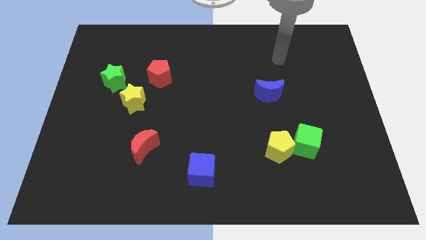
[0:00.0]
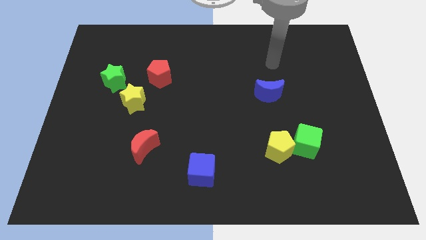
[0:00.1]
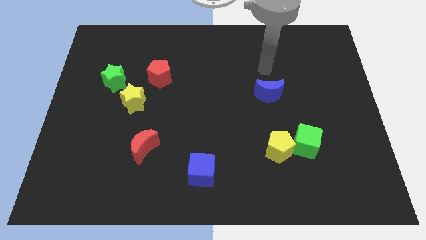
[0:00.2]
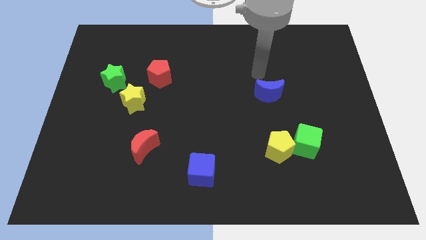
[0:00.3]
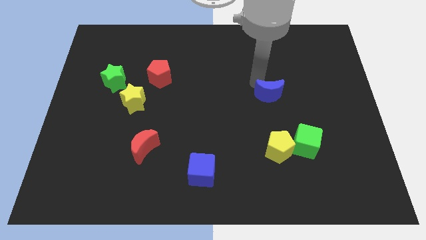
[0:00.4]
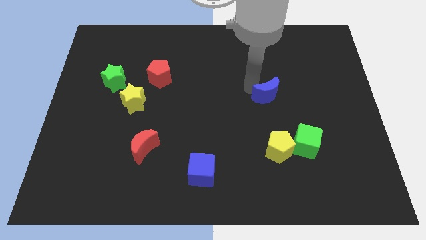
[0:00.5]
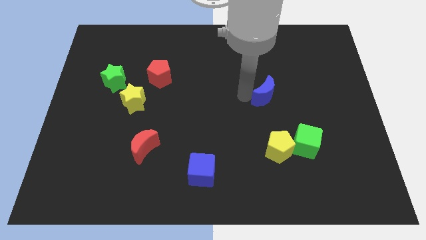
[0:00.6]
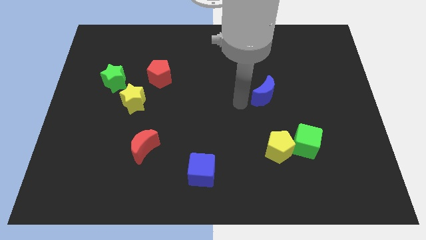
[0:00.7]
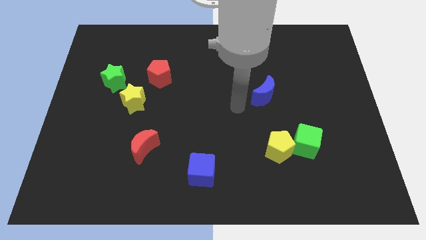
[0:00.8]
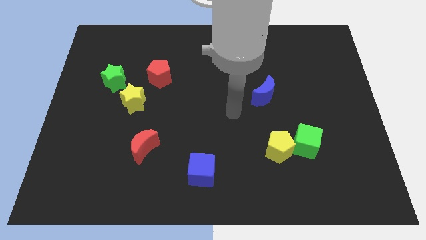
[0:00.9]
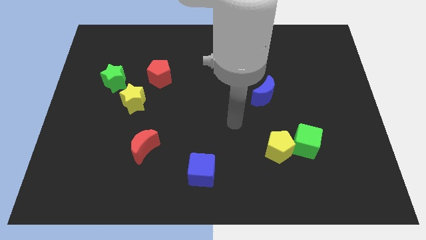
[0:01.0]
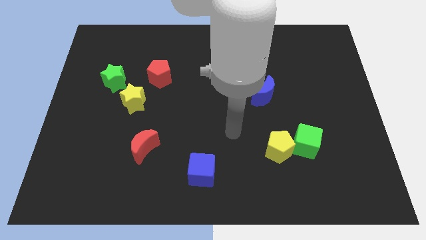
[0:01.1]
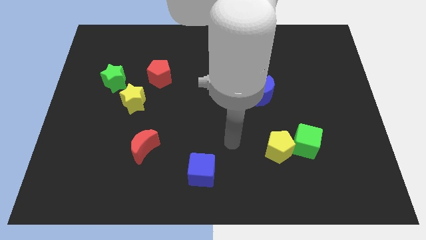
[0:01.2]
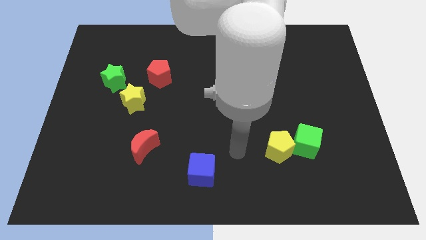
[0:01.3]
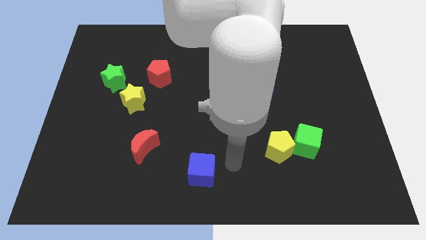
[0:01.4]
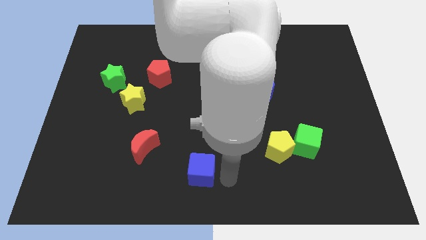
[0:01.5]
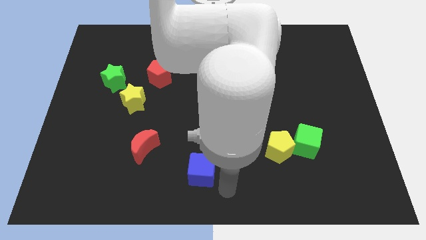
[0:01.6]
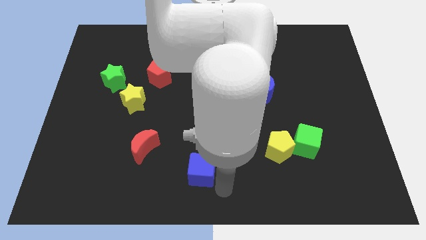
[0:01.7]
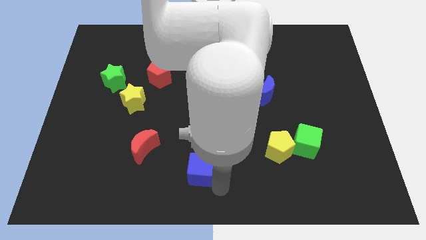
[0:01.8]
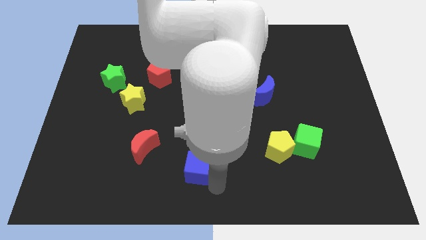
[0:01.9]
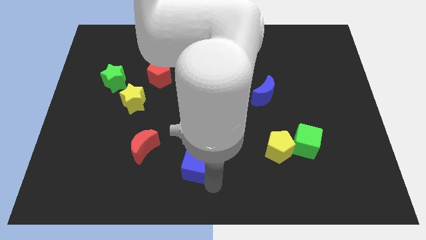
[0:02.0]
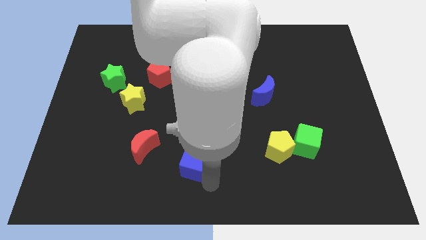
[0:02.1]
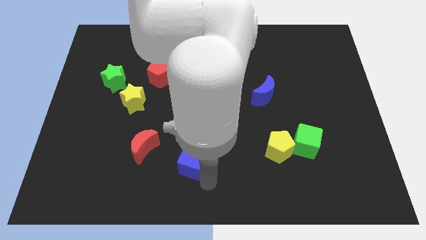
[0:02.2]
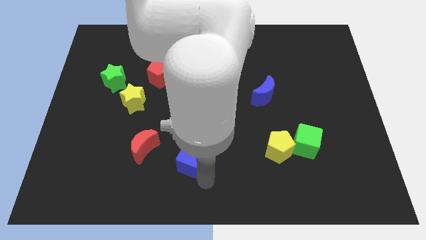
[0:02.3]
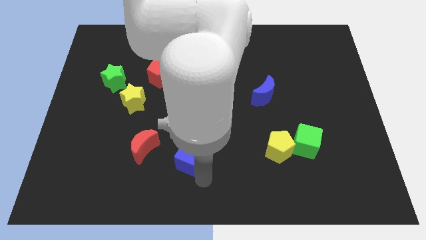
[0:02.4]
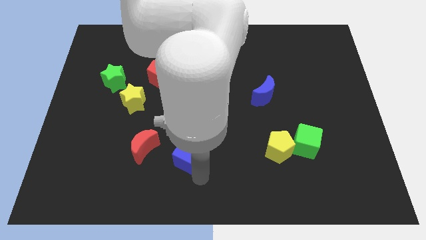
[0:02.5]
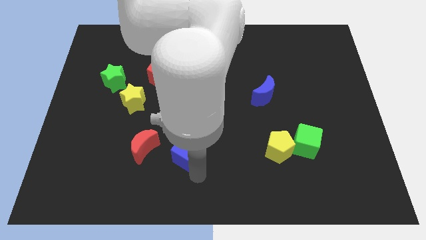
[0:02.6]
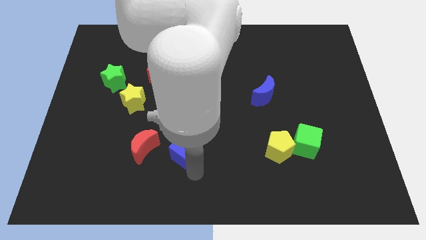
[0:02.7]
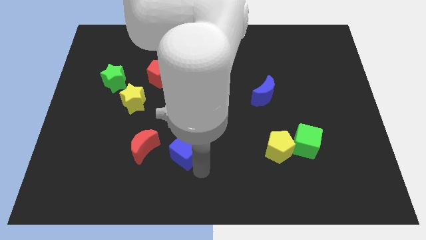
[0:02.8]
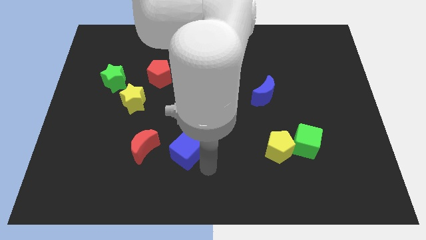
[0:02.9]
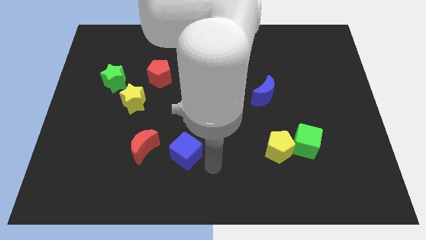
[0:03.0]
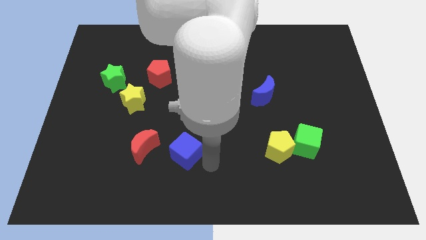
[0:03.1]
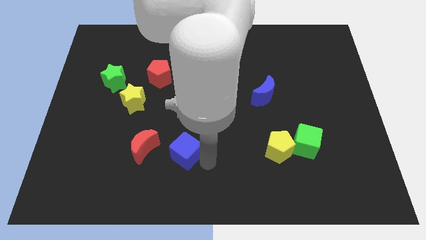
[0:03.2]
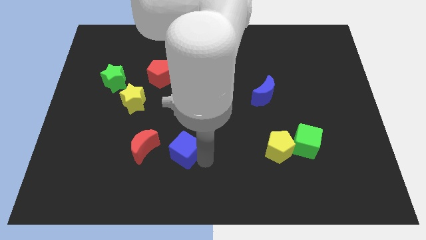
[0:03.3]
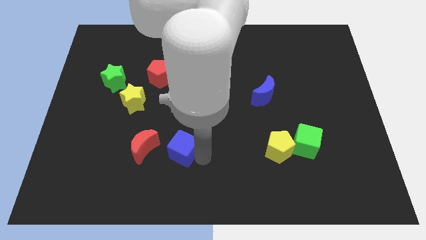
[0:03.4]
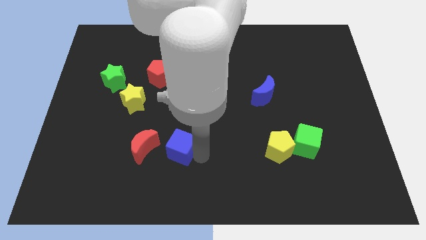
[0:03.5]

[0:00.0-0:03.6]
push the blue cube upwards and left slightly

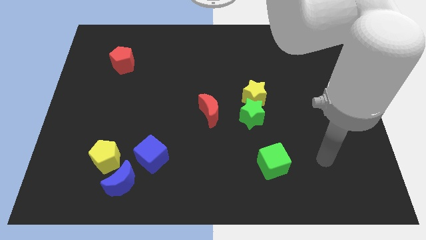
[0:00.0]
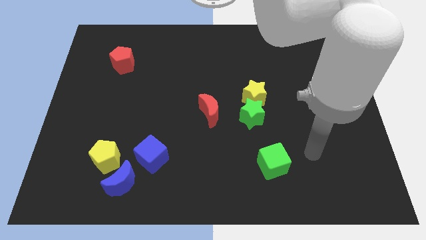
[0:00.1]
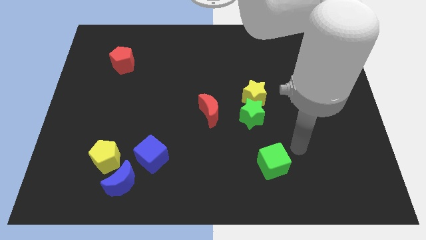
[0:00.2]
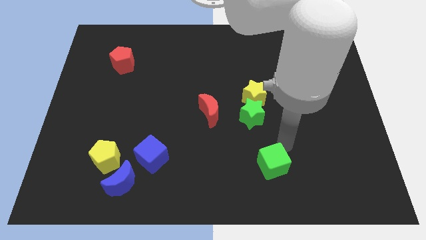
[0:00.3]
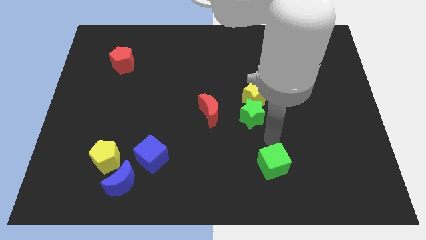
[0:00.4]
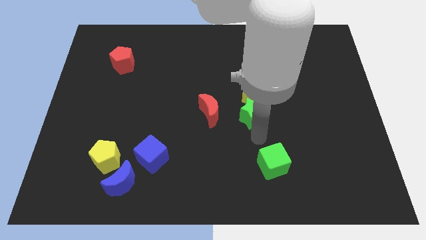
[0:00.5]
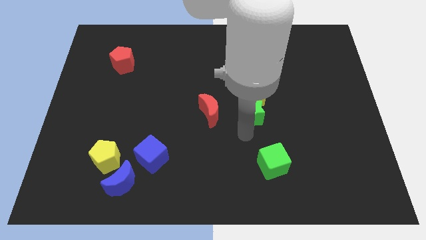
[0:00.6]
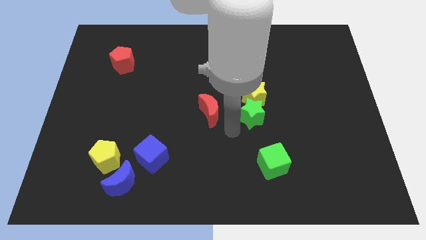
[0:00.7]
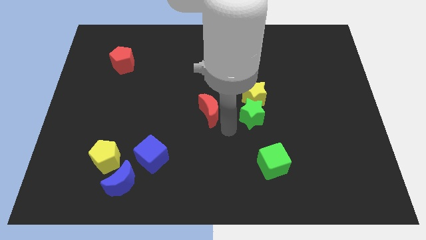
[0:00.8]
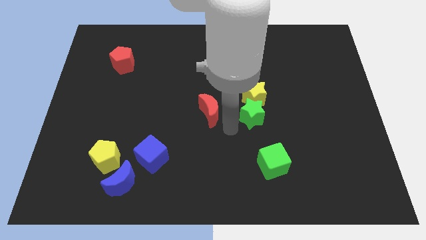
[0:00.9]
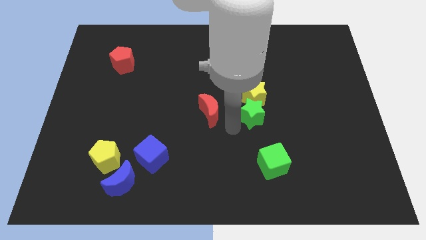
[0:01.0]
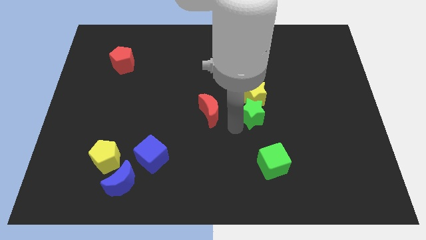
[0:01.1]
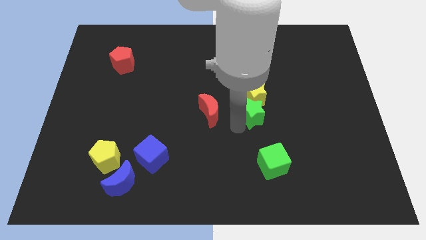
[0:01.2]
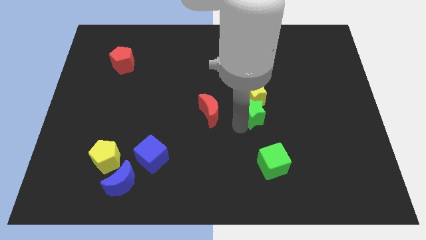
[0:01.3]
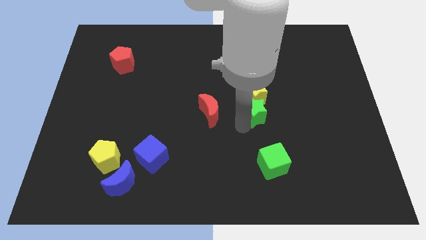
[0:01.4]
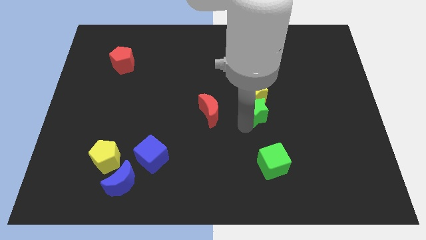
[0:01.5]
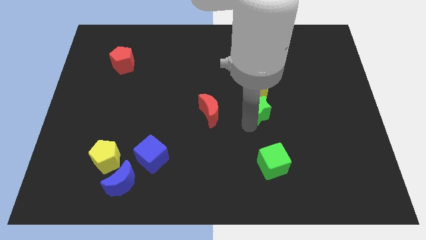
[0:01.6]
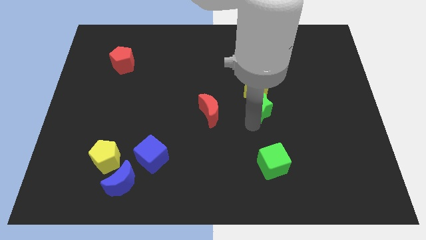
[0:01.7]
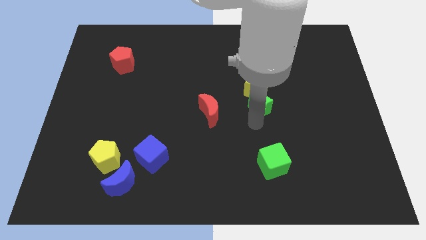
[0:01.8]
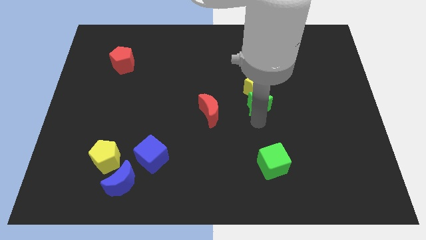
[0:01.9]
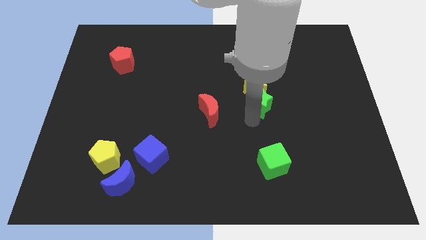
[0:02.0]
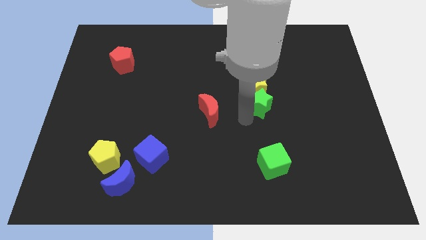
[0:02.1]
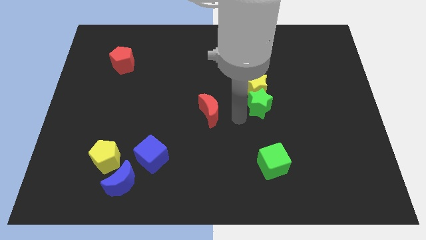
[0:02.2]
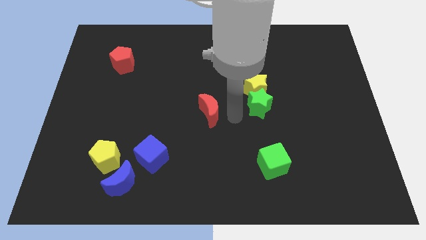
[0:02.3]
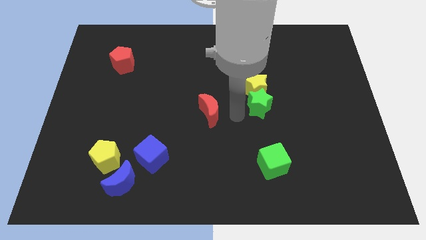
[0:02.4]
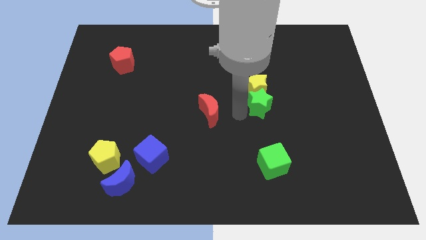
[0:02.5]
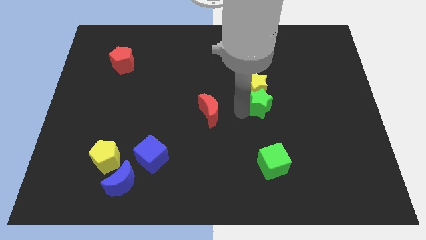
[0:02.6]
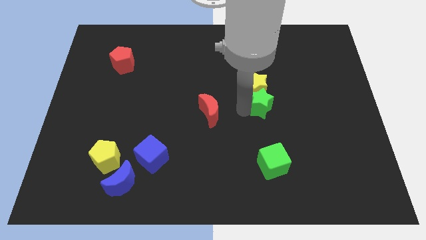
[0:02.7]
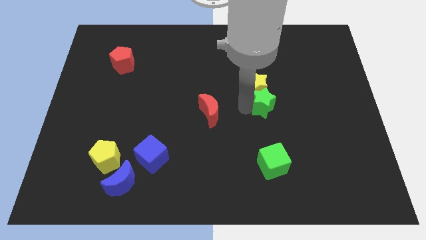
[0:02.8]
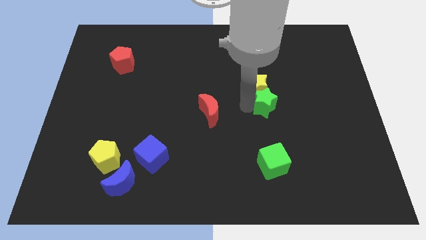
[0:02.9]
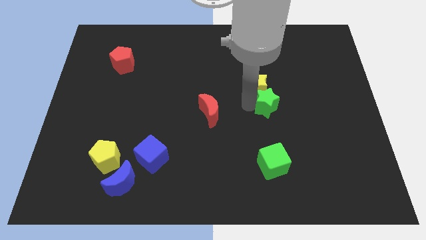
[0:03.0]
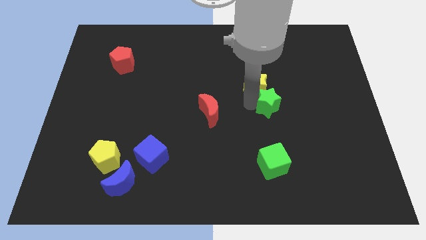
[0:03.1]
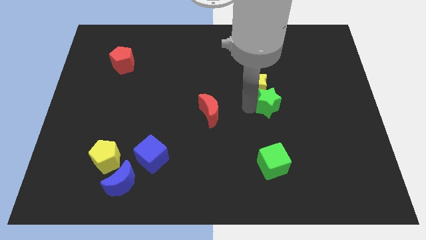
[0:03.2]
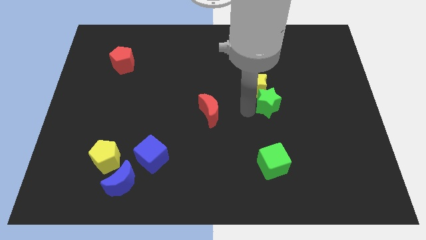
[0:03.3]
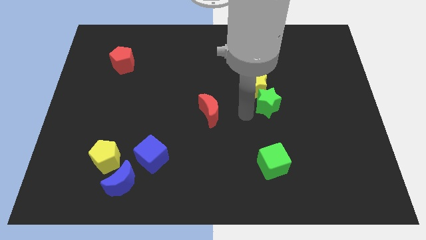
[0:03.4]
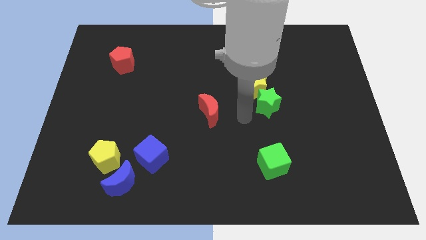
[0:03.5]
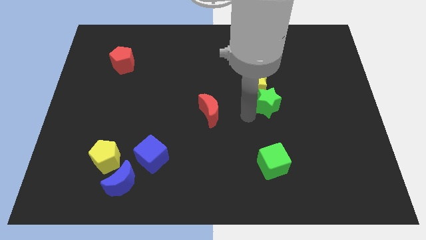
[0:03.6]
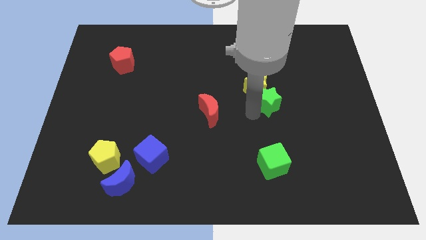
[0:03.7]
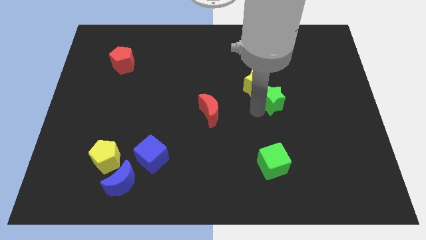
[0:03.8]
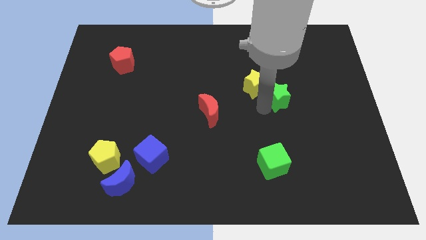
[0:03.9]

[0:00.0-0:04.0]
push the green star a bit diagonally up and right

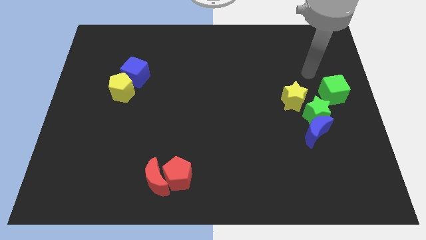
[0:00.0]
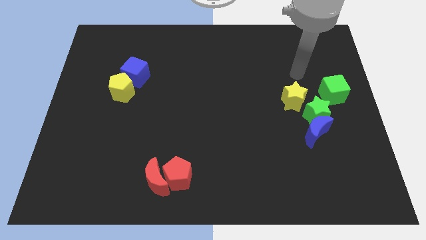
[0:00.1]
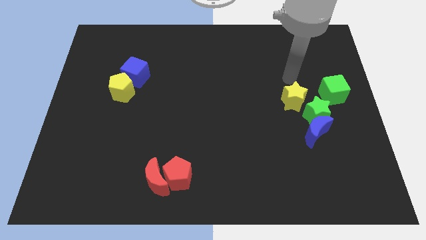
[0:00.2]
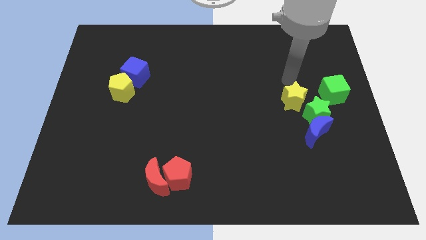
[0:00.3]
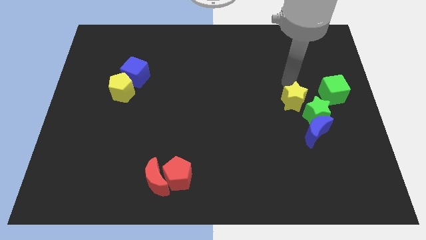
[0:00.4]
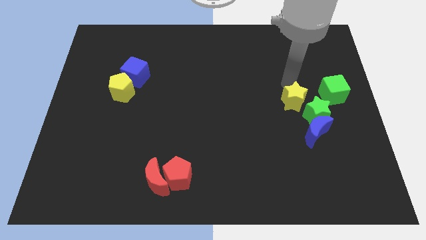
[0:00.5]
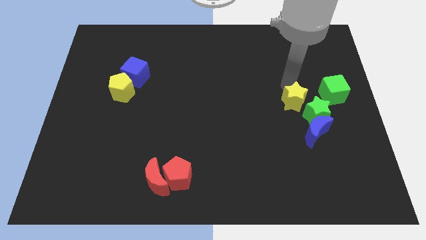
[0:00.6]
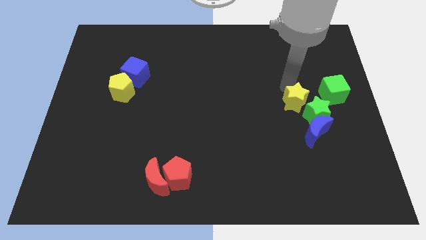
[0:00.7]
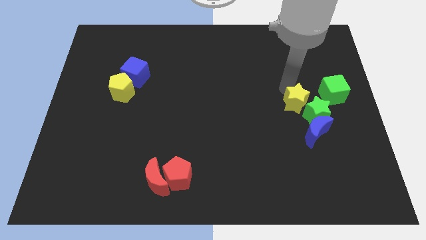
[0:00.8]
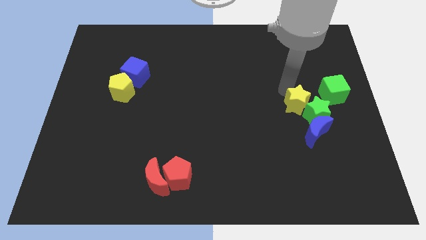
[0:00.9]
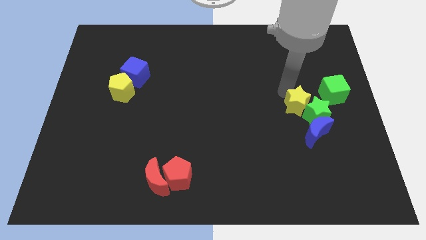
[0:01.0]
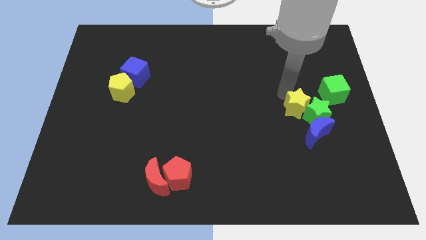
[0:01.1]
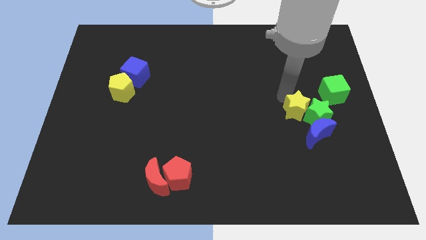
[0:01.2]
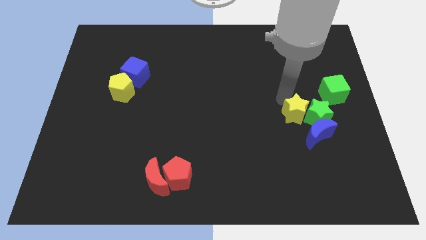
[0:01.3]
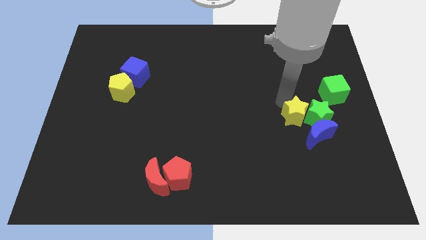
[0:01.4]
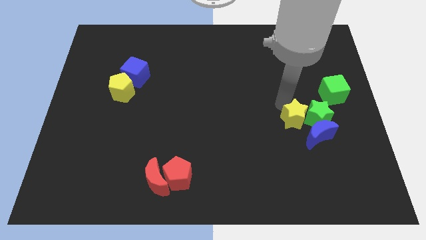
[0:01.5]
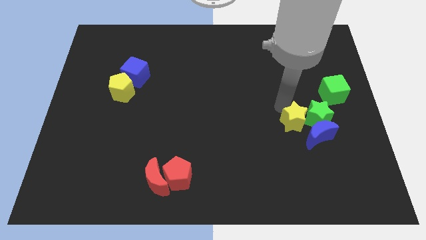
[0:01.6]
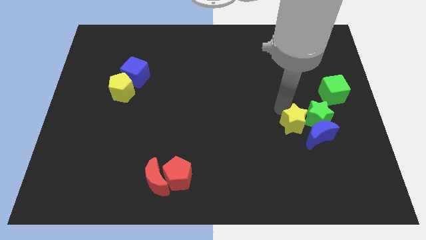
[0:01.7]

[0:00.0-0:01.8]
slightly slide the yellow star down
